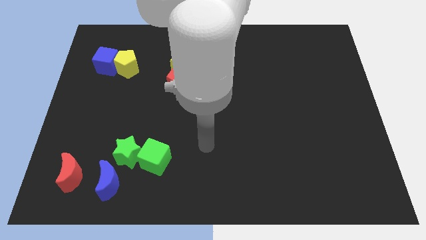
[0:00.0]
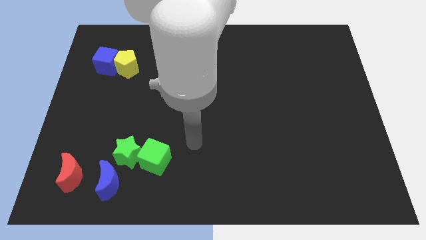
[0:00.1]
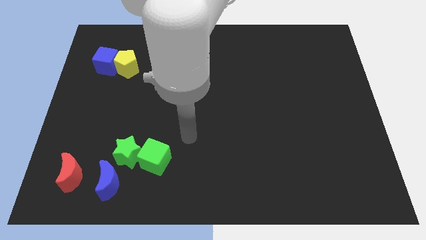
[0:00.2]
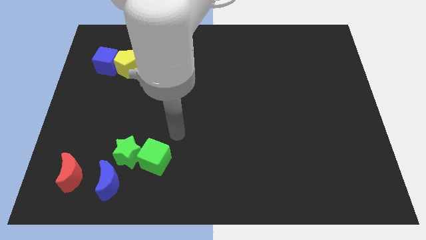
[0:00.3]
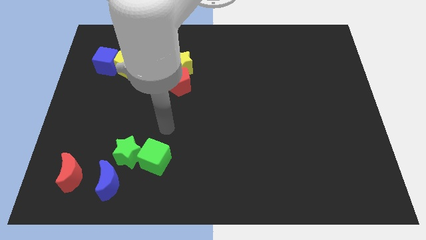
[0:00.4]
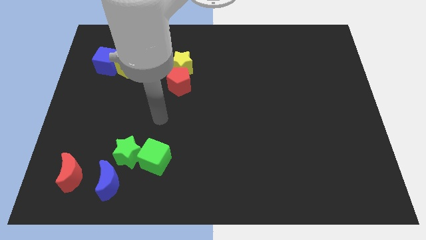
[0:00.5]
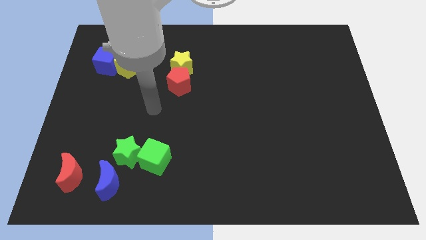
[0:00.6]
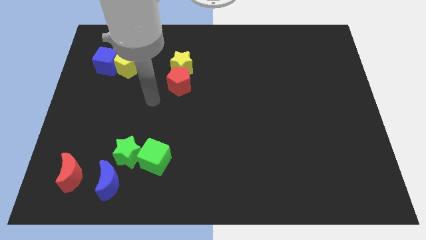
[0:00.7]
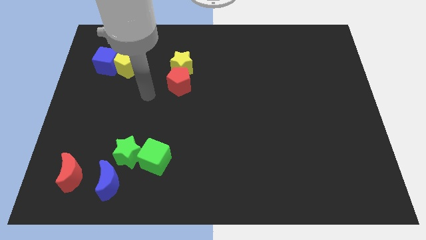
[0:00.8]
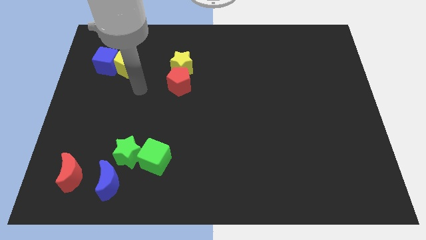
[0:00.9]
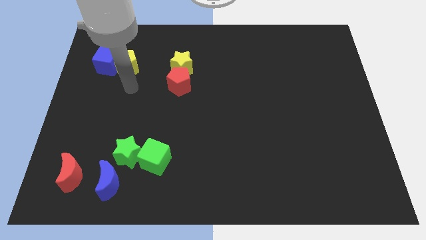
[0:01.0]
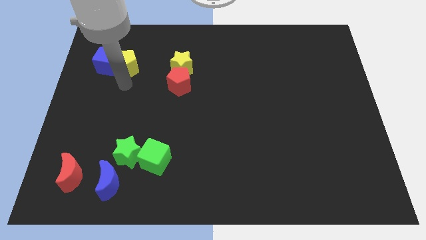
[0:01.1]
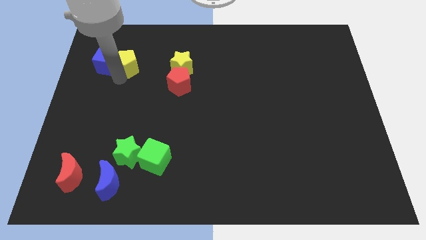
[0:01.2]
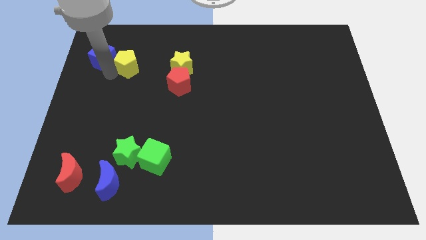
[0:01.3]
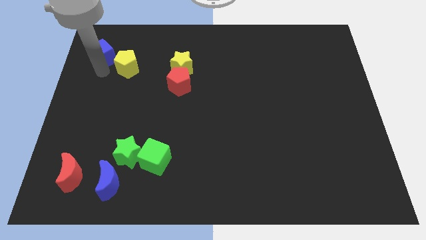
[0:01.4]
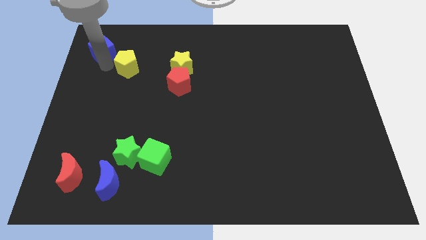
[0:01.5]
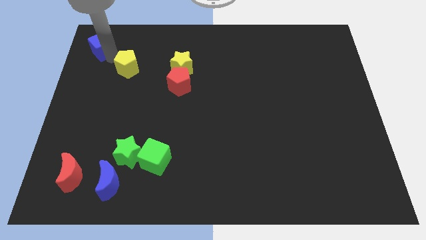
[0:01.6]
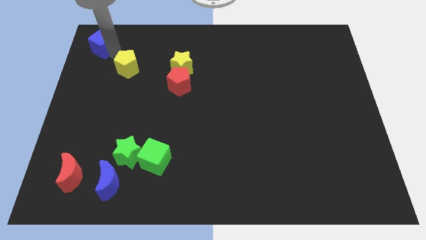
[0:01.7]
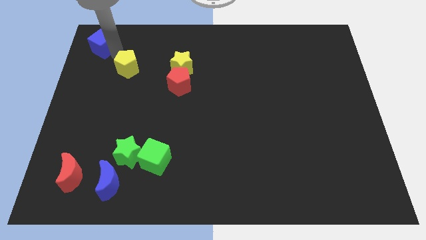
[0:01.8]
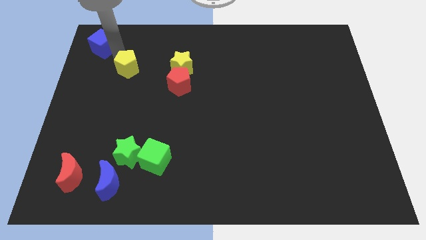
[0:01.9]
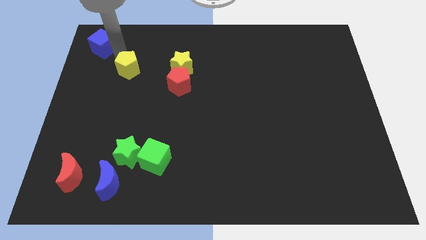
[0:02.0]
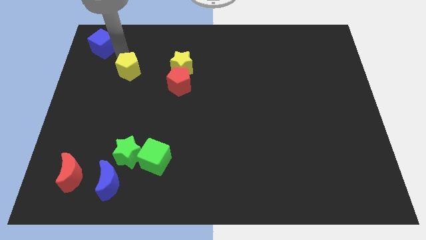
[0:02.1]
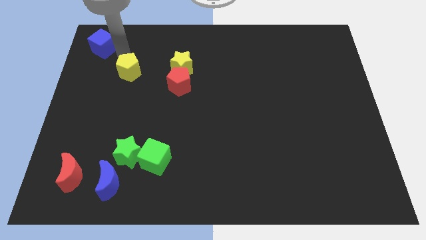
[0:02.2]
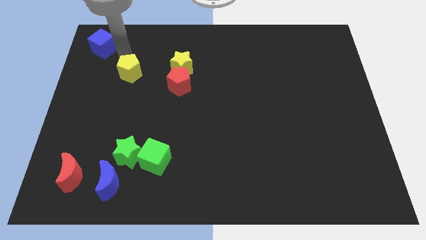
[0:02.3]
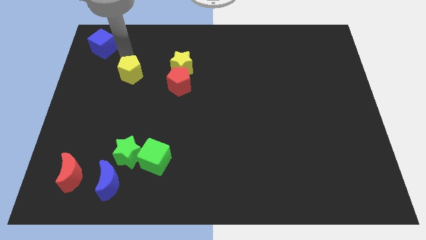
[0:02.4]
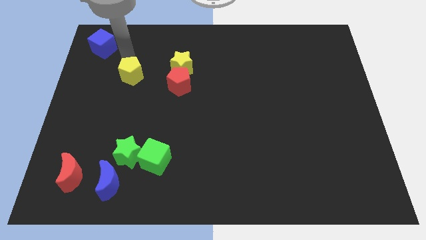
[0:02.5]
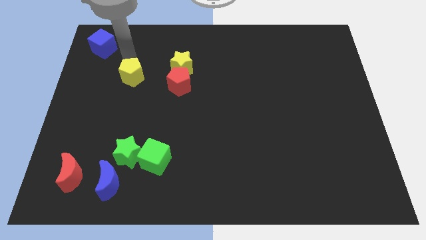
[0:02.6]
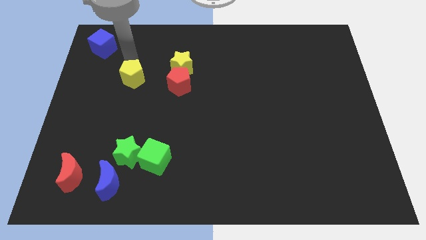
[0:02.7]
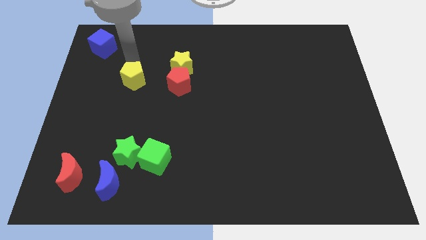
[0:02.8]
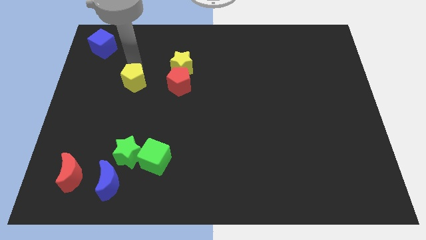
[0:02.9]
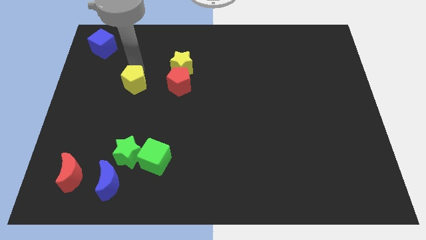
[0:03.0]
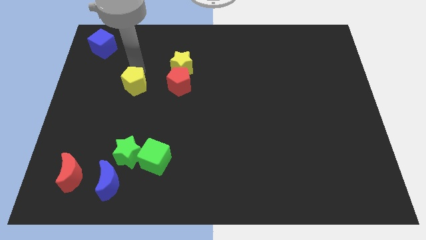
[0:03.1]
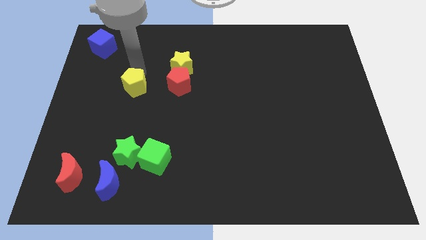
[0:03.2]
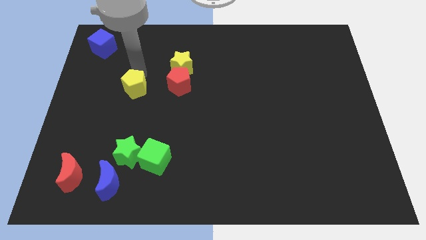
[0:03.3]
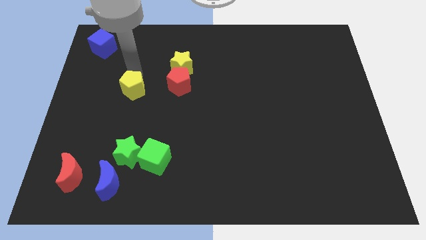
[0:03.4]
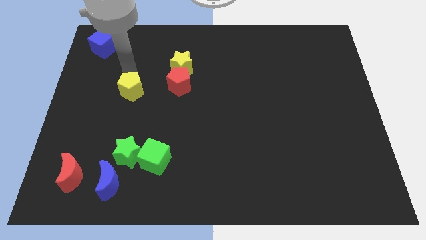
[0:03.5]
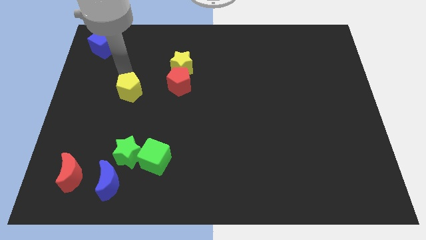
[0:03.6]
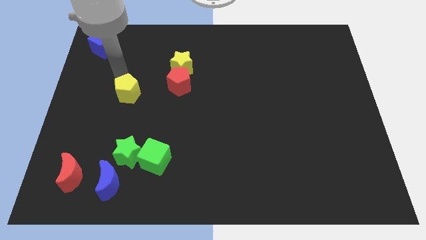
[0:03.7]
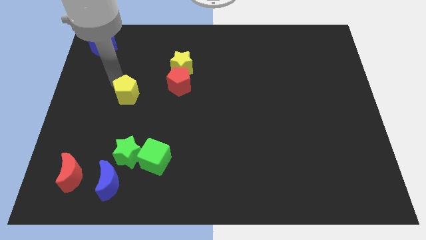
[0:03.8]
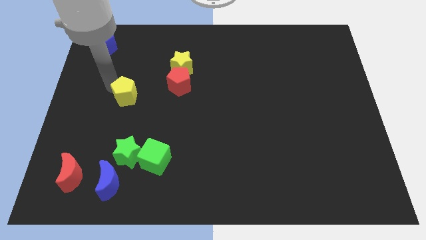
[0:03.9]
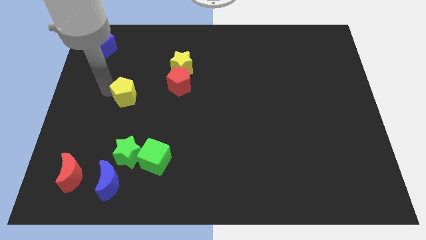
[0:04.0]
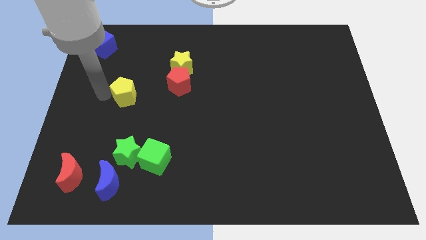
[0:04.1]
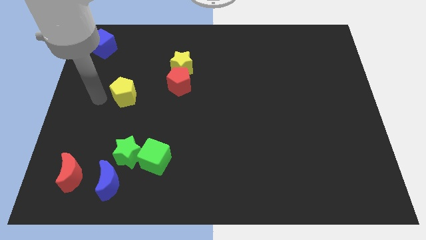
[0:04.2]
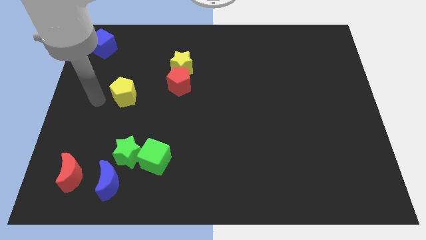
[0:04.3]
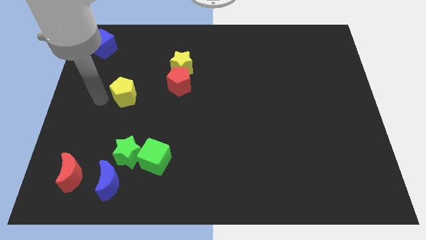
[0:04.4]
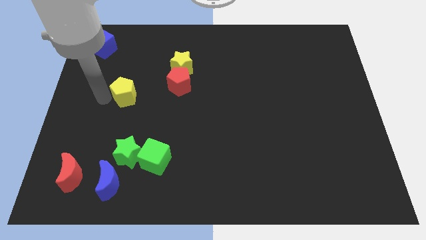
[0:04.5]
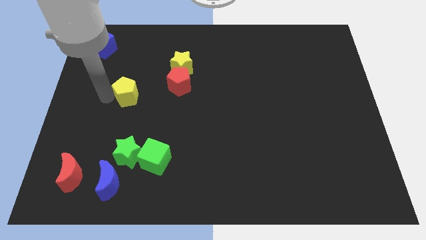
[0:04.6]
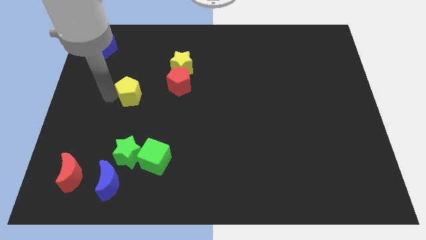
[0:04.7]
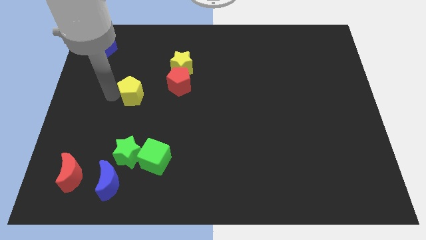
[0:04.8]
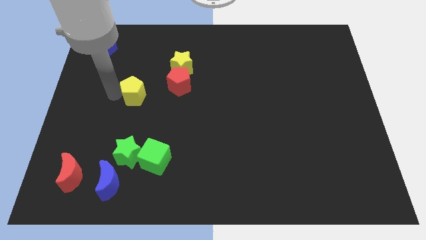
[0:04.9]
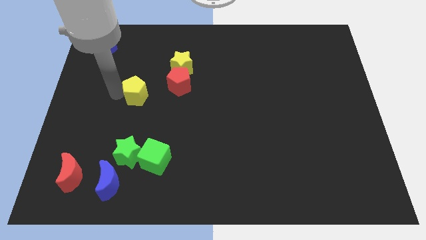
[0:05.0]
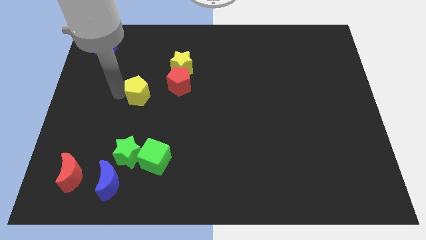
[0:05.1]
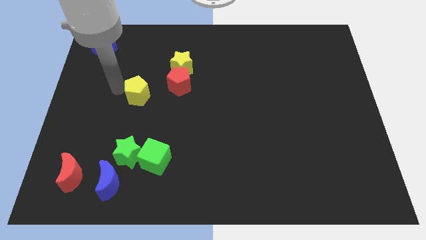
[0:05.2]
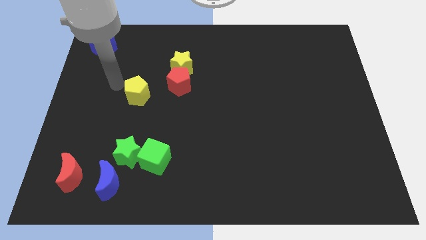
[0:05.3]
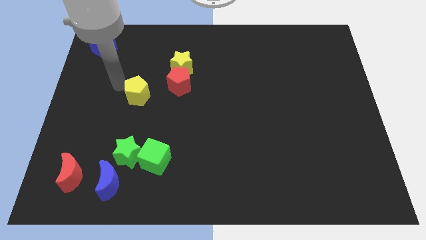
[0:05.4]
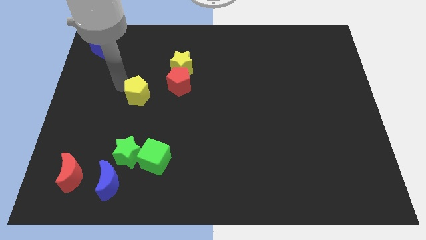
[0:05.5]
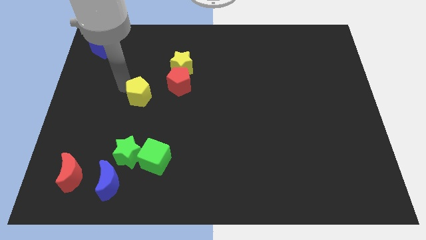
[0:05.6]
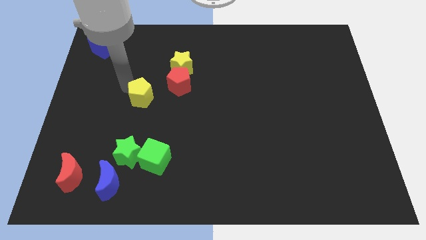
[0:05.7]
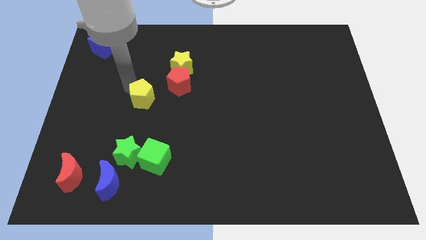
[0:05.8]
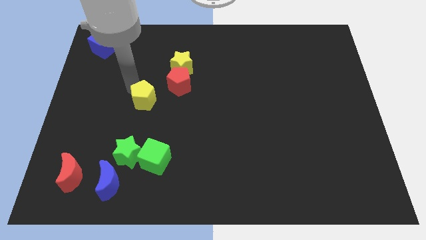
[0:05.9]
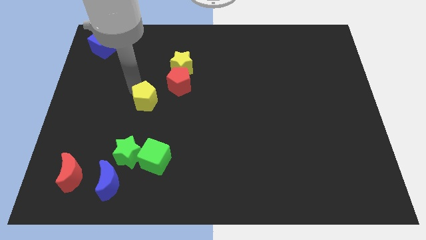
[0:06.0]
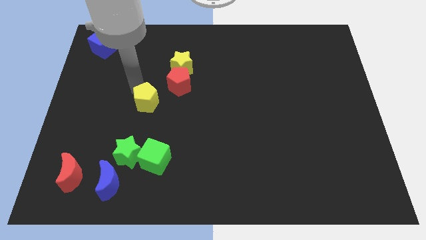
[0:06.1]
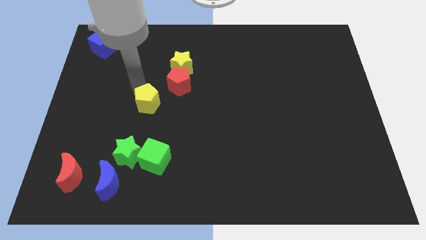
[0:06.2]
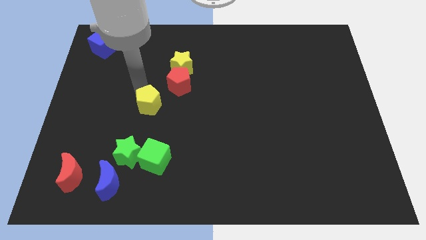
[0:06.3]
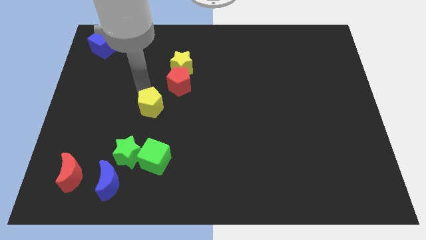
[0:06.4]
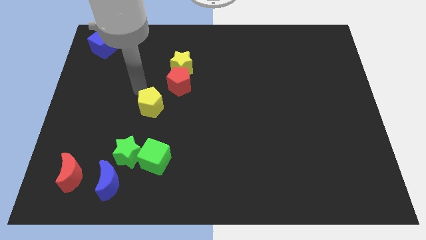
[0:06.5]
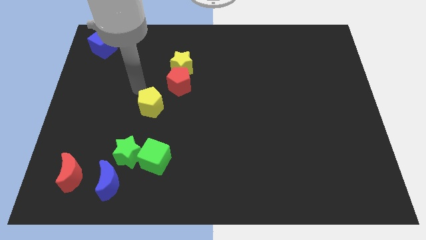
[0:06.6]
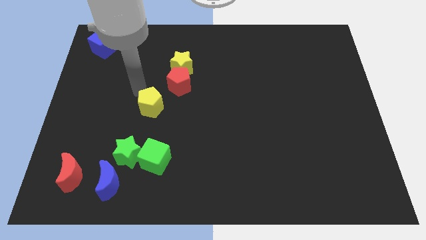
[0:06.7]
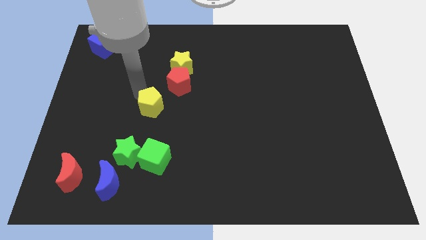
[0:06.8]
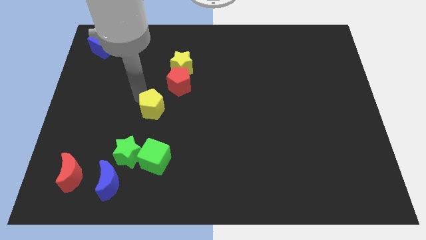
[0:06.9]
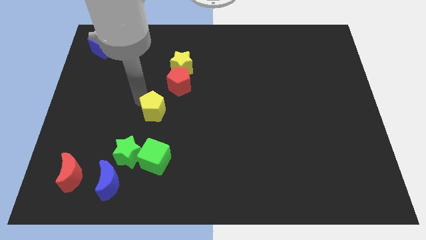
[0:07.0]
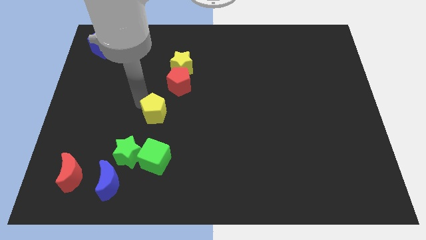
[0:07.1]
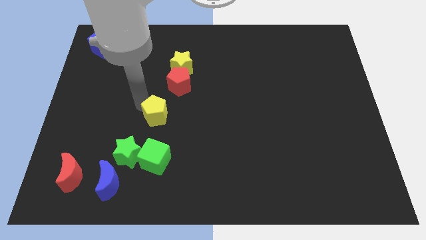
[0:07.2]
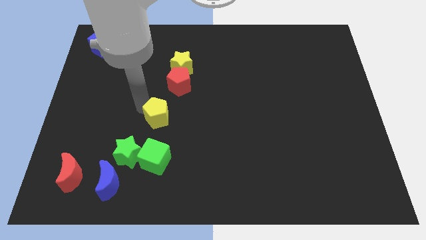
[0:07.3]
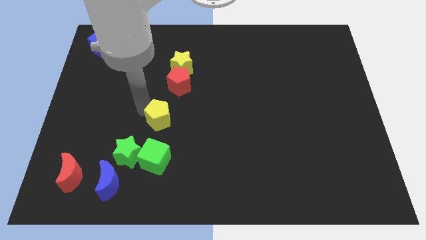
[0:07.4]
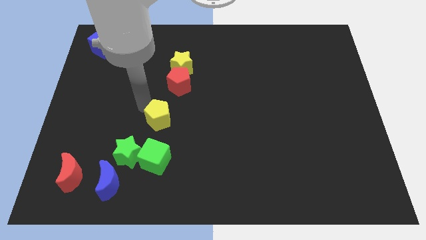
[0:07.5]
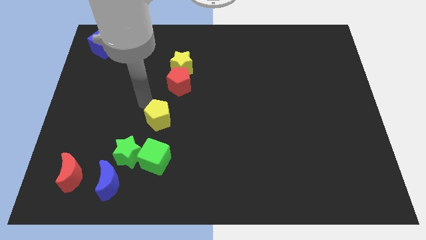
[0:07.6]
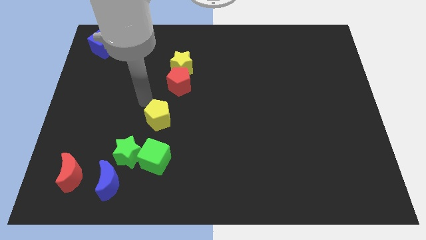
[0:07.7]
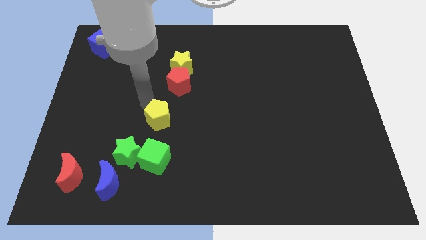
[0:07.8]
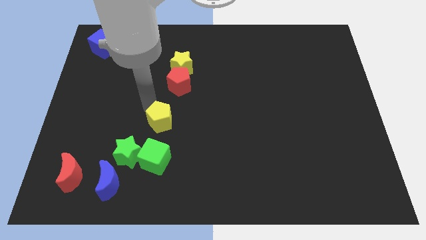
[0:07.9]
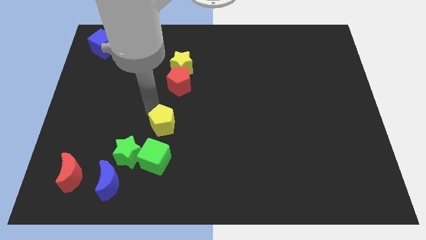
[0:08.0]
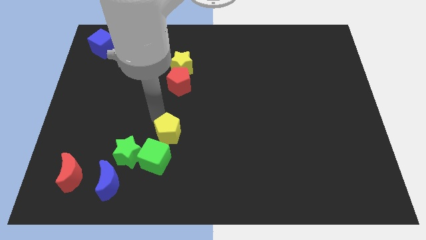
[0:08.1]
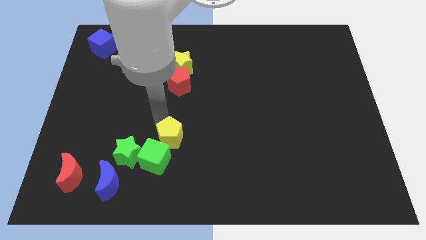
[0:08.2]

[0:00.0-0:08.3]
push the yellow pentagon to the right of the green star
